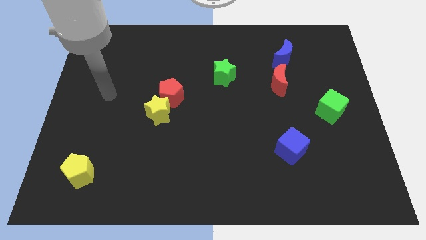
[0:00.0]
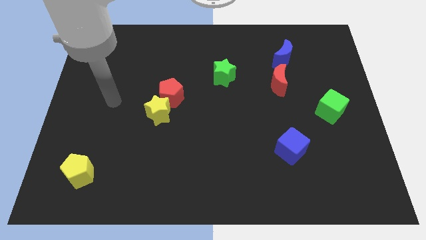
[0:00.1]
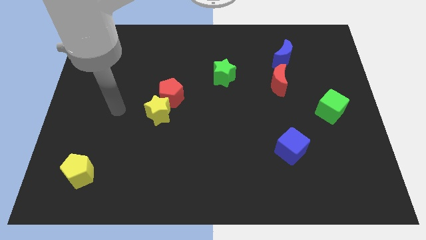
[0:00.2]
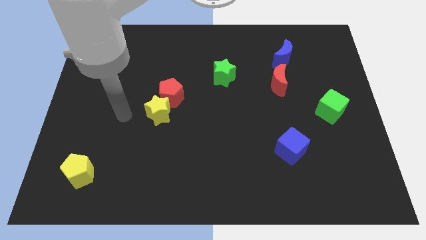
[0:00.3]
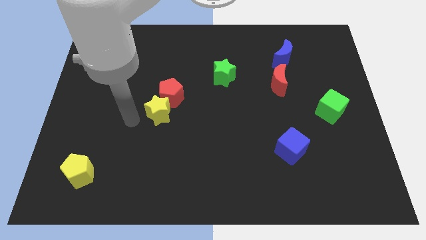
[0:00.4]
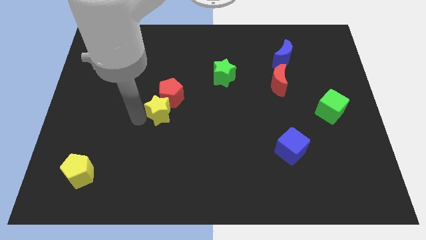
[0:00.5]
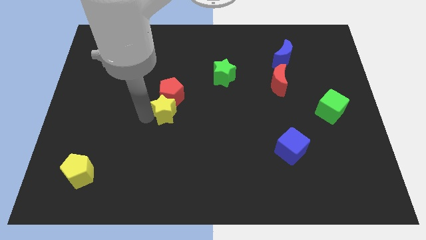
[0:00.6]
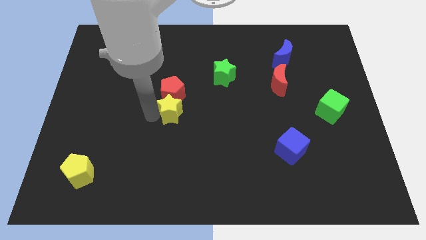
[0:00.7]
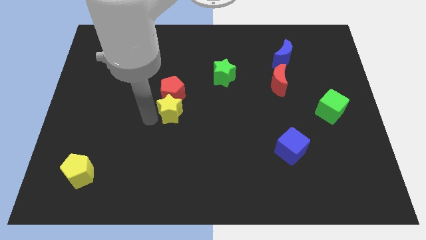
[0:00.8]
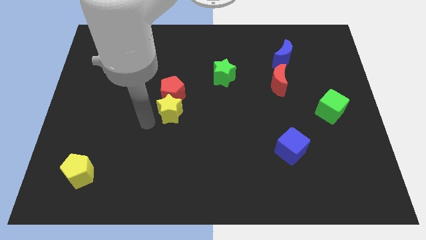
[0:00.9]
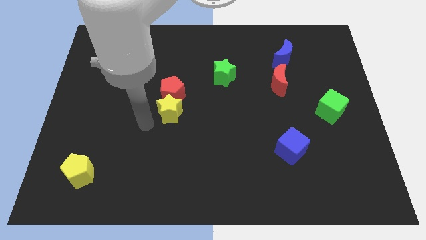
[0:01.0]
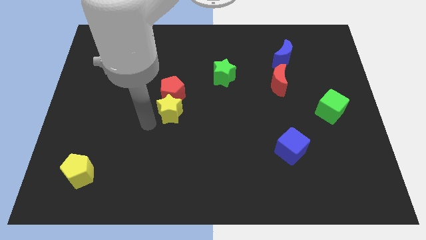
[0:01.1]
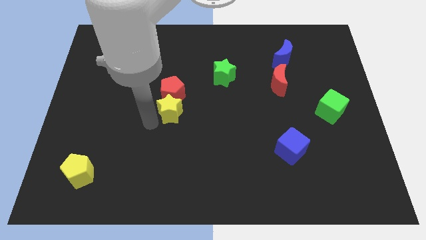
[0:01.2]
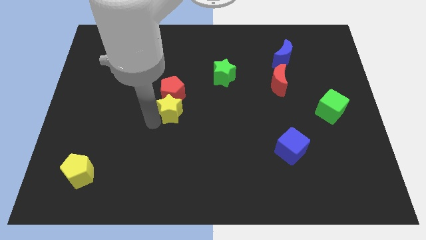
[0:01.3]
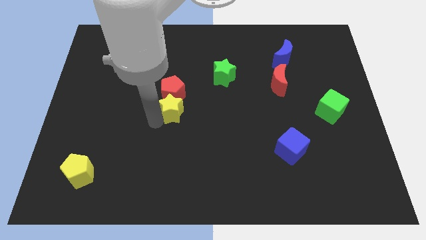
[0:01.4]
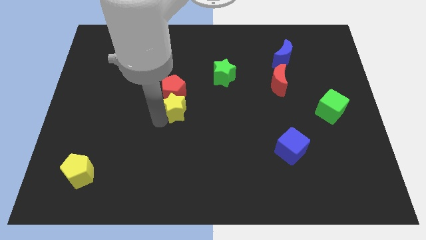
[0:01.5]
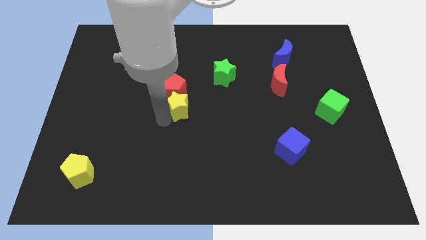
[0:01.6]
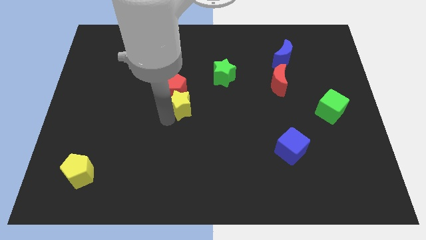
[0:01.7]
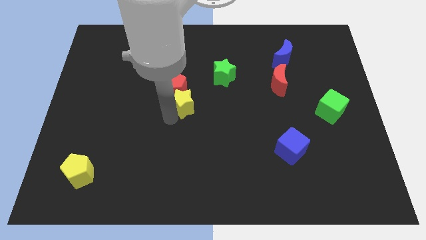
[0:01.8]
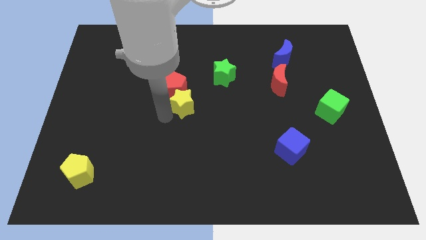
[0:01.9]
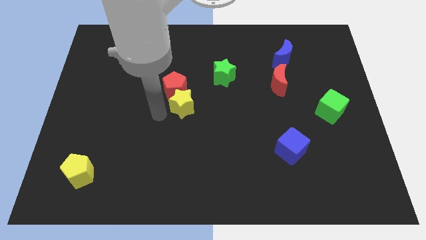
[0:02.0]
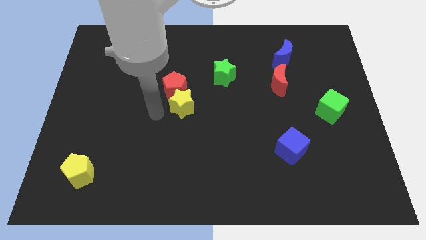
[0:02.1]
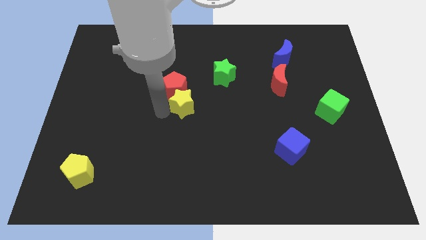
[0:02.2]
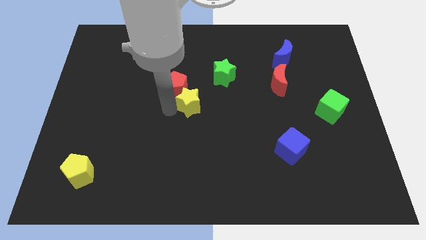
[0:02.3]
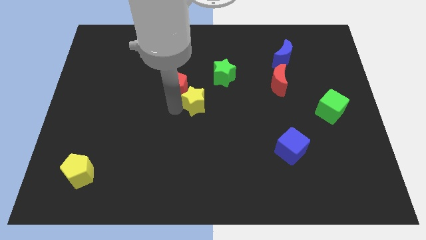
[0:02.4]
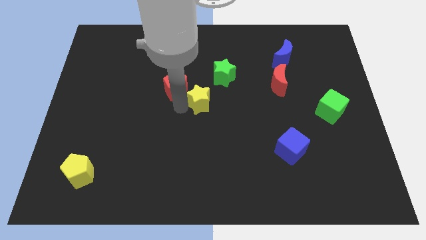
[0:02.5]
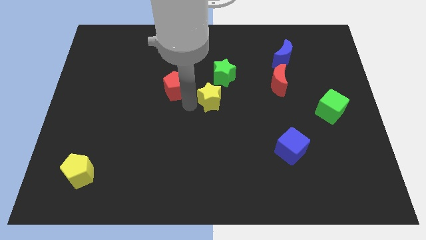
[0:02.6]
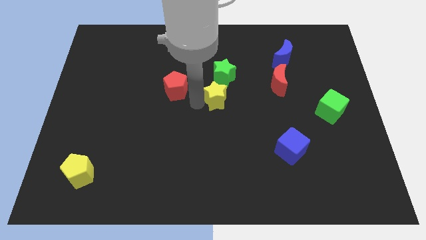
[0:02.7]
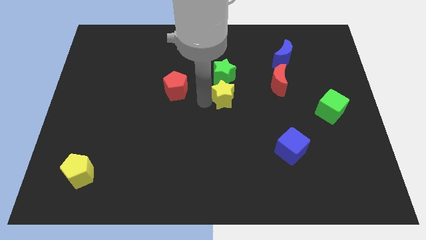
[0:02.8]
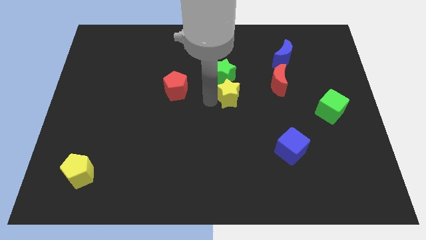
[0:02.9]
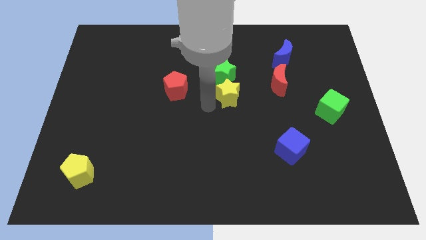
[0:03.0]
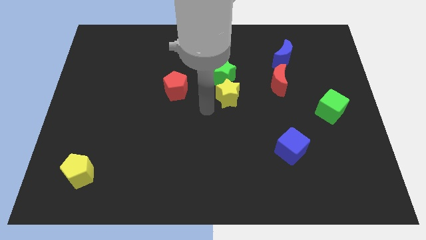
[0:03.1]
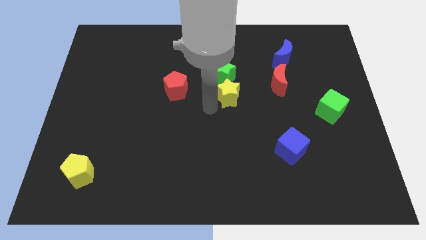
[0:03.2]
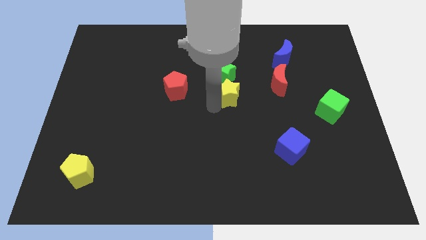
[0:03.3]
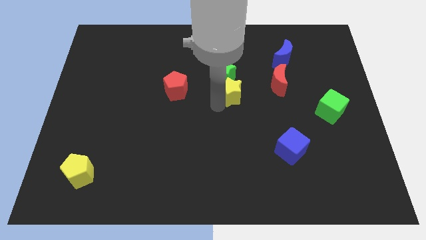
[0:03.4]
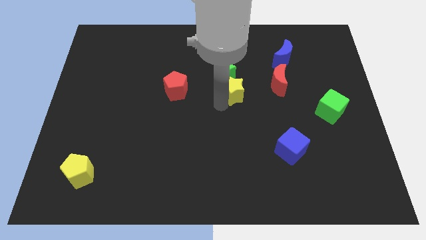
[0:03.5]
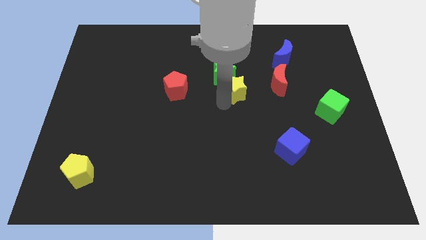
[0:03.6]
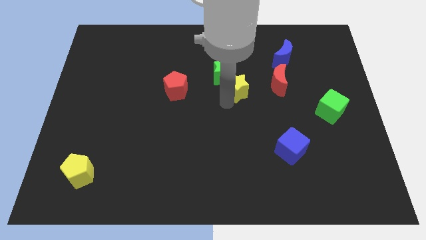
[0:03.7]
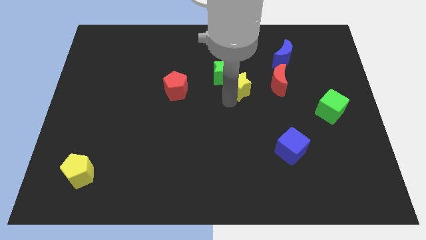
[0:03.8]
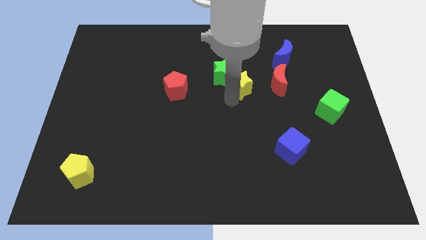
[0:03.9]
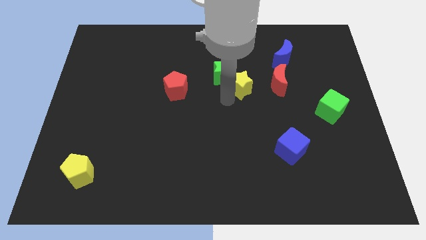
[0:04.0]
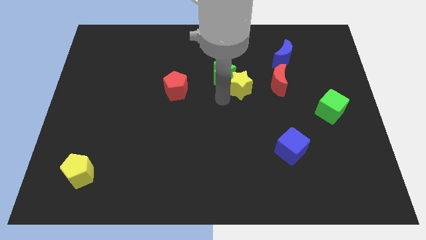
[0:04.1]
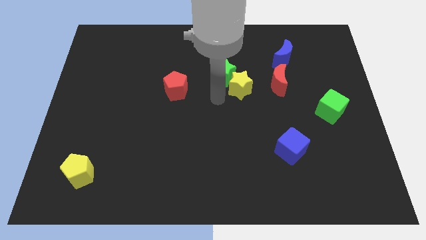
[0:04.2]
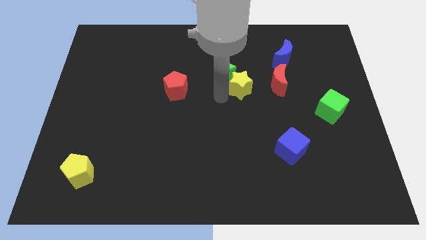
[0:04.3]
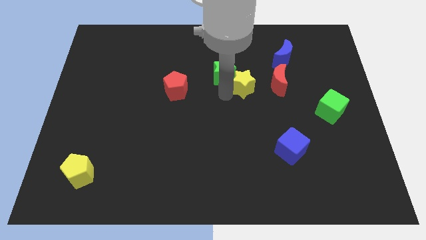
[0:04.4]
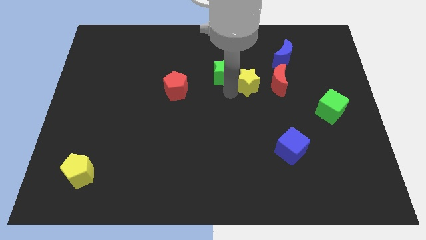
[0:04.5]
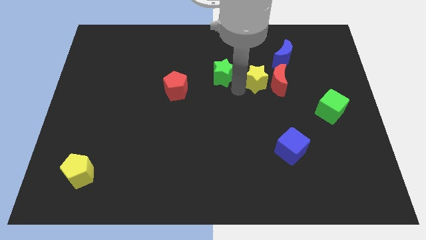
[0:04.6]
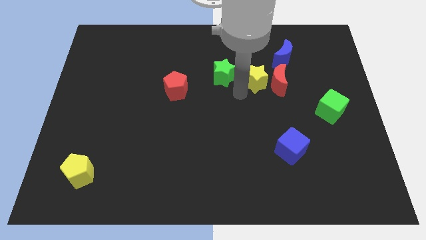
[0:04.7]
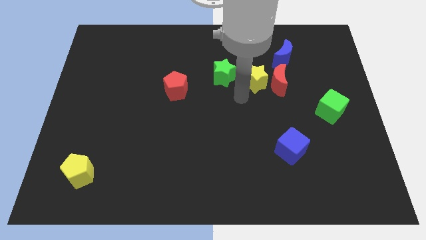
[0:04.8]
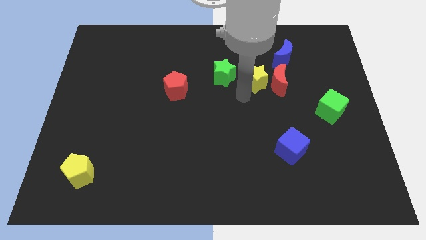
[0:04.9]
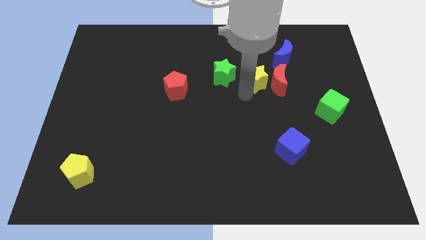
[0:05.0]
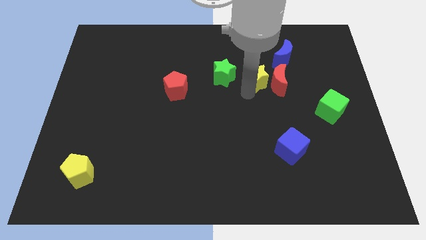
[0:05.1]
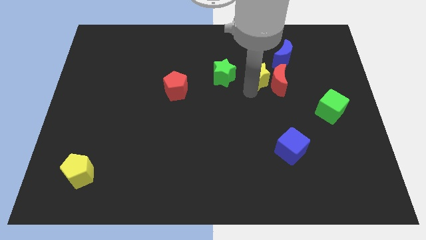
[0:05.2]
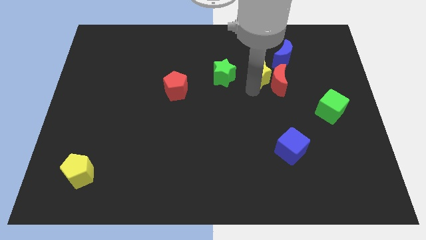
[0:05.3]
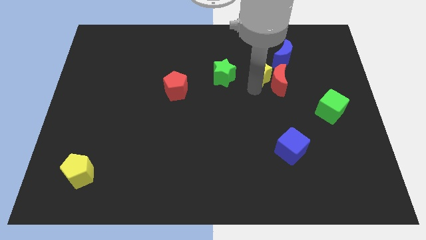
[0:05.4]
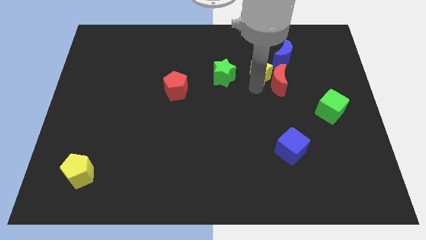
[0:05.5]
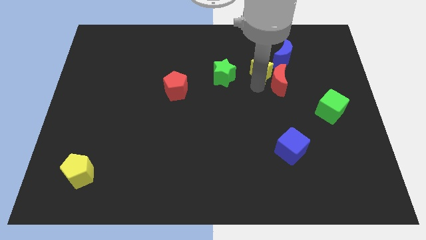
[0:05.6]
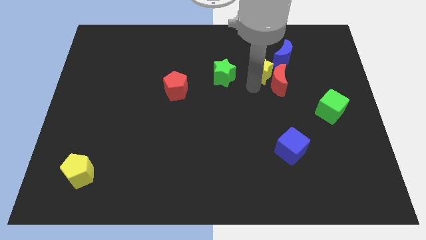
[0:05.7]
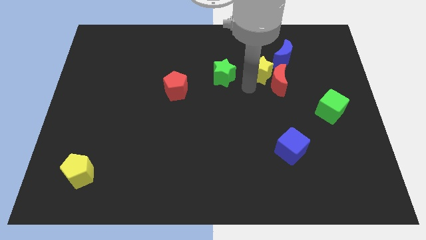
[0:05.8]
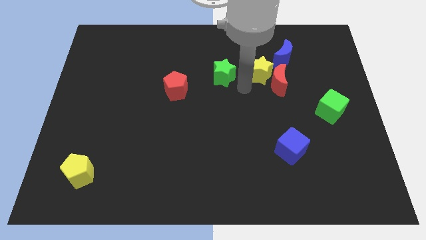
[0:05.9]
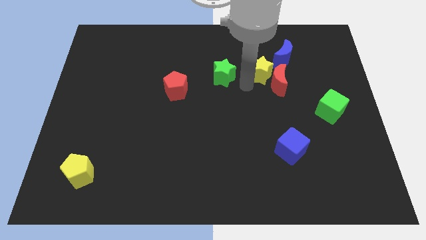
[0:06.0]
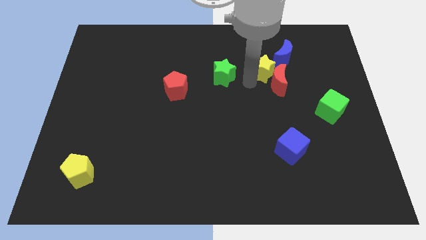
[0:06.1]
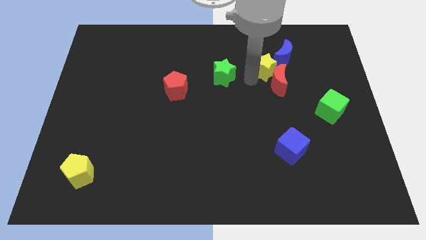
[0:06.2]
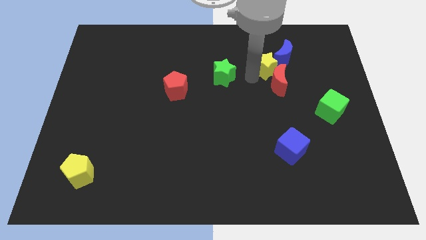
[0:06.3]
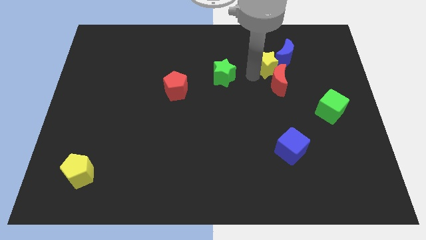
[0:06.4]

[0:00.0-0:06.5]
move the yellow star next to the blue moon
